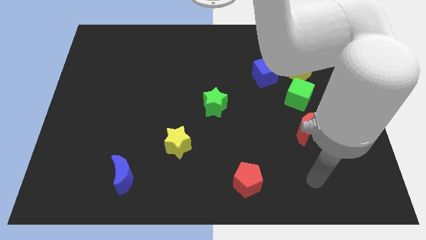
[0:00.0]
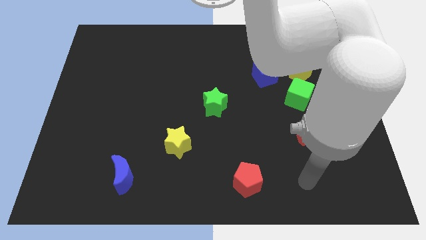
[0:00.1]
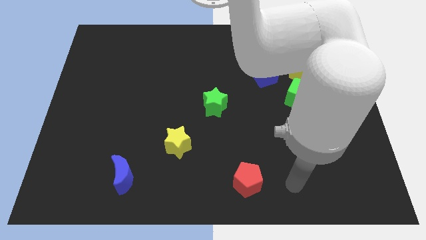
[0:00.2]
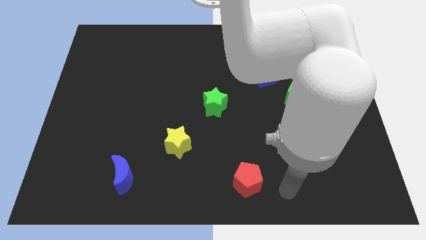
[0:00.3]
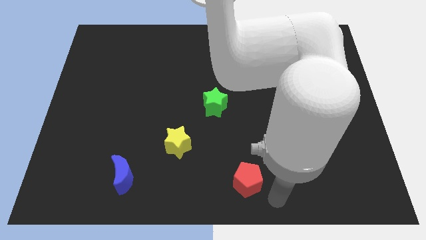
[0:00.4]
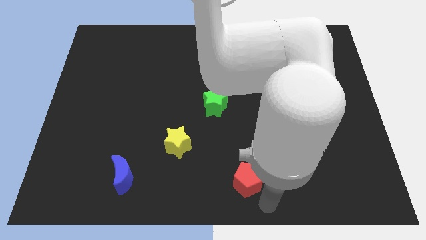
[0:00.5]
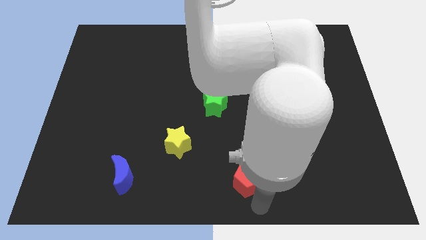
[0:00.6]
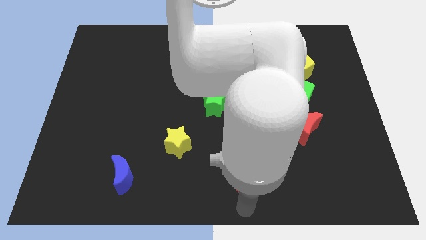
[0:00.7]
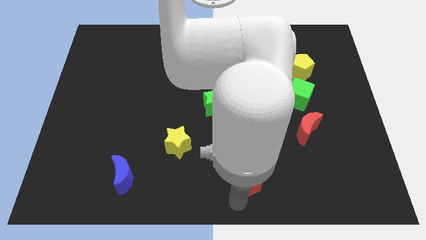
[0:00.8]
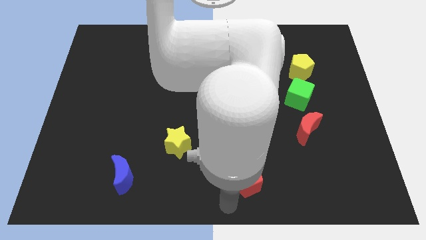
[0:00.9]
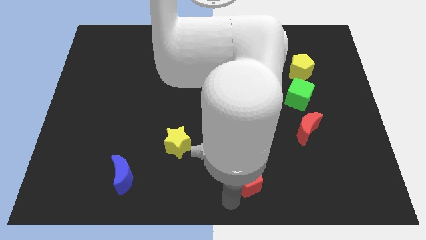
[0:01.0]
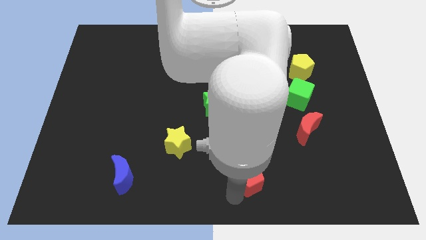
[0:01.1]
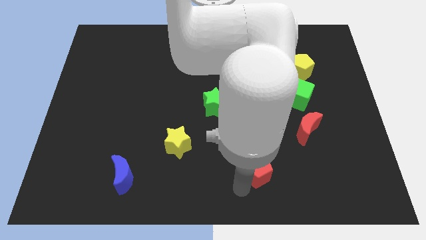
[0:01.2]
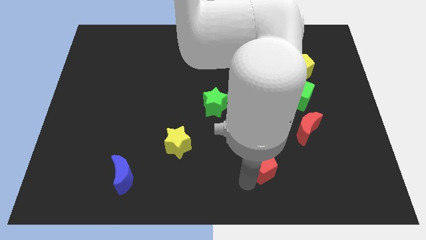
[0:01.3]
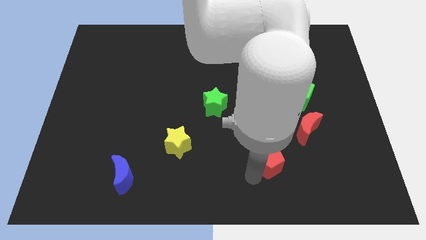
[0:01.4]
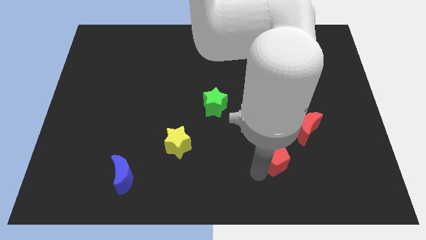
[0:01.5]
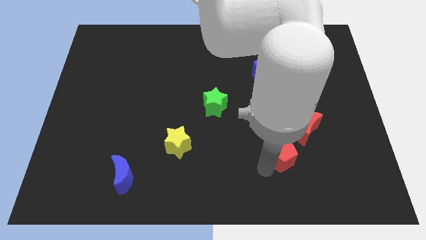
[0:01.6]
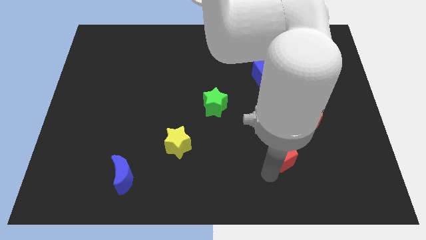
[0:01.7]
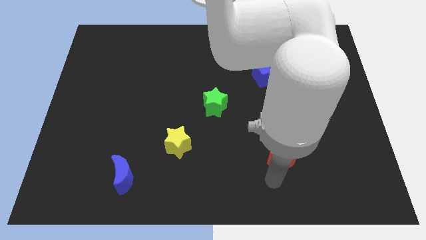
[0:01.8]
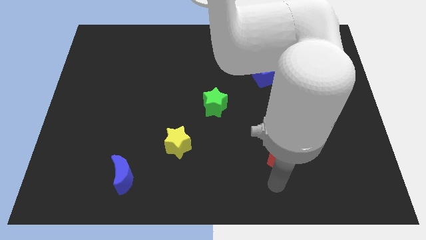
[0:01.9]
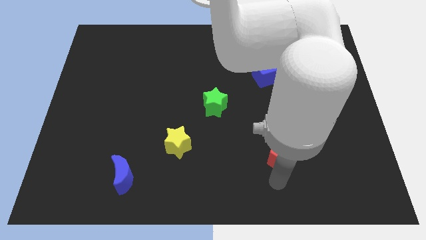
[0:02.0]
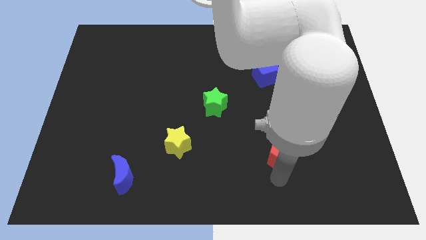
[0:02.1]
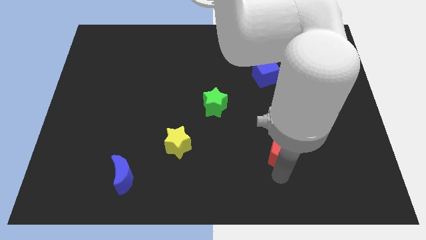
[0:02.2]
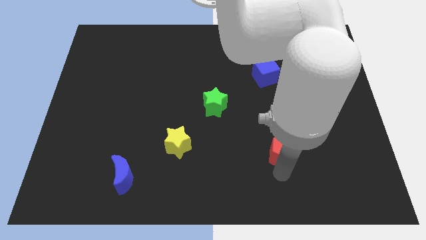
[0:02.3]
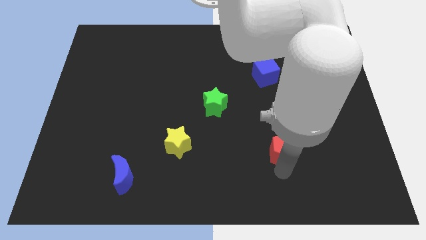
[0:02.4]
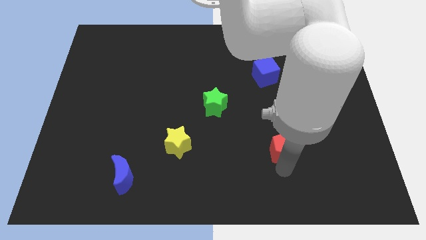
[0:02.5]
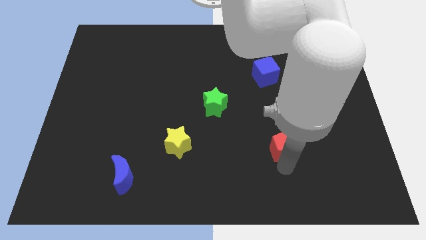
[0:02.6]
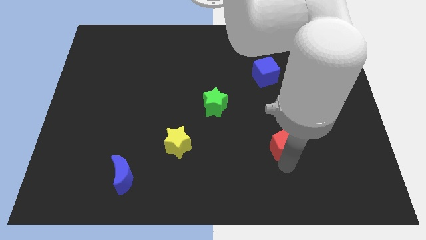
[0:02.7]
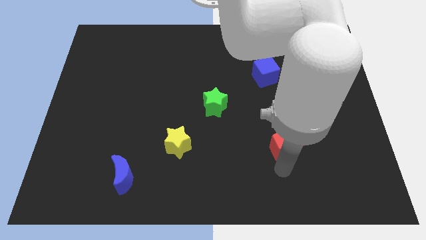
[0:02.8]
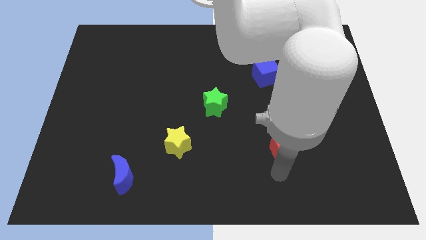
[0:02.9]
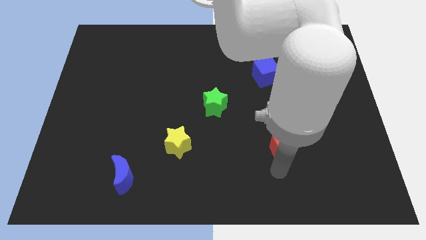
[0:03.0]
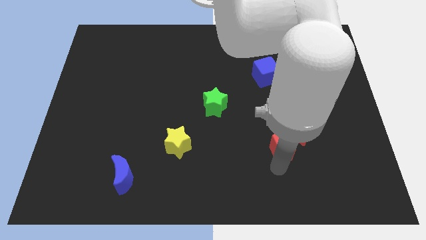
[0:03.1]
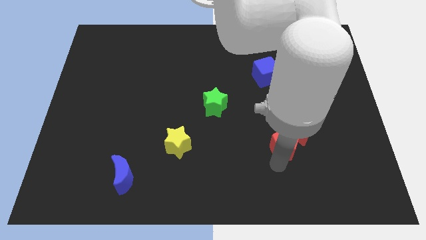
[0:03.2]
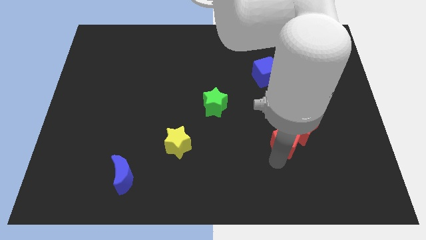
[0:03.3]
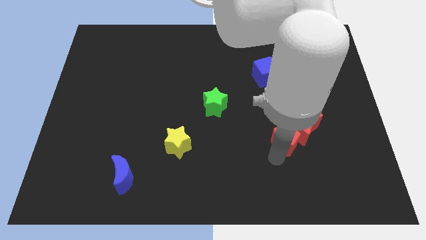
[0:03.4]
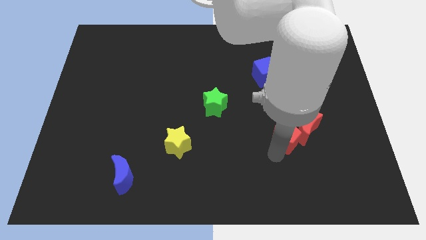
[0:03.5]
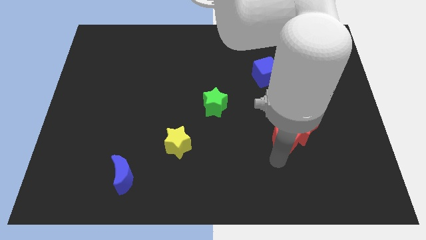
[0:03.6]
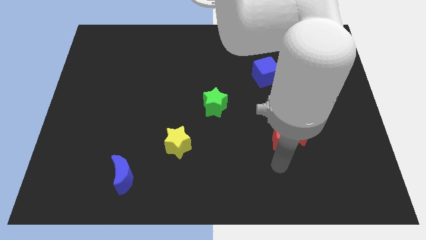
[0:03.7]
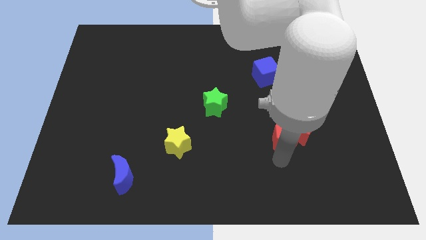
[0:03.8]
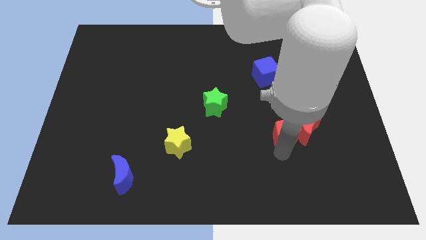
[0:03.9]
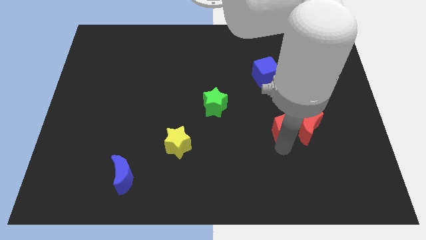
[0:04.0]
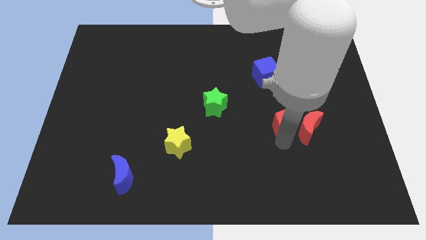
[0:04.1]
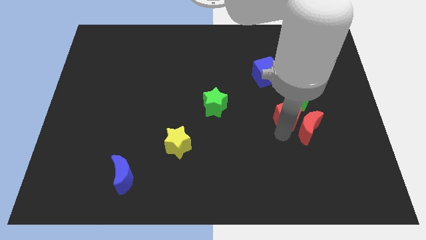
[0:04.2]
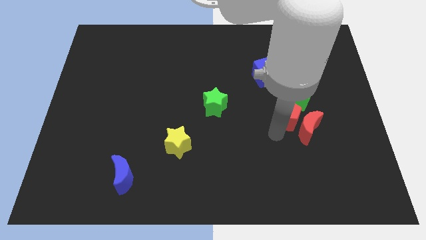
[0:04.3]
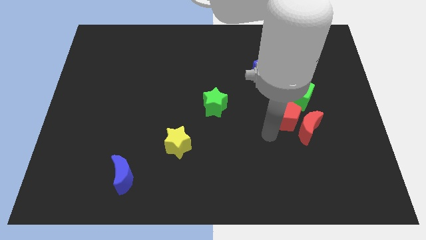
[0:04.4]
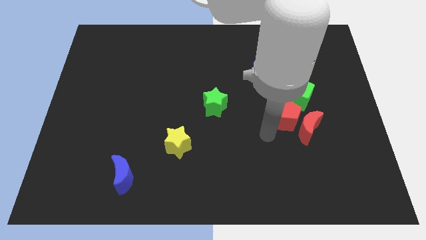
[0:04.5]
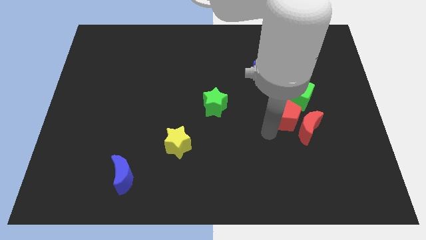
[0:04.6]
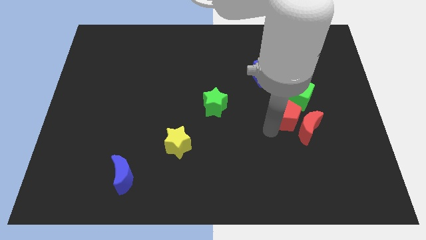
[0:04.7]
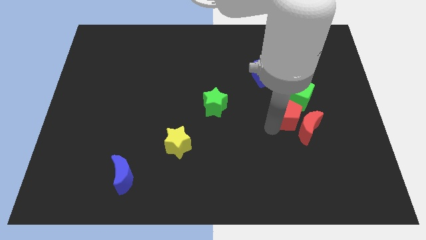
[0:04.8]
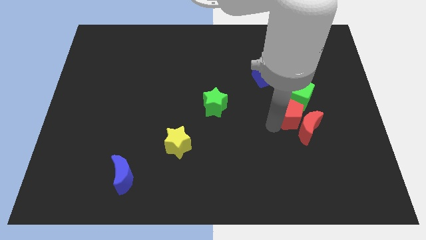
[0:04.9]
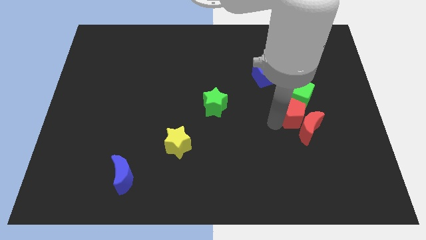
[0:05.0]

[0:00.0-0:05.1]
put the red pentagon below the yellow pentagon

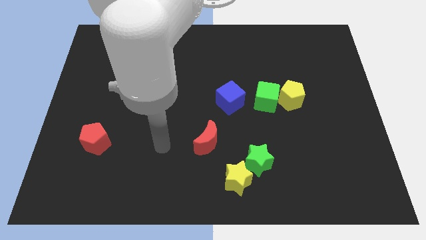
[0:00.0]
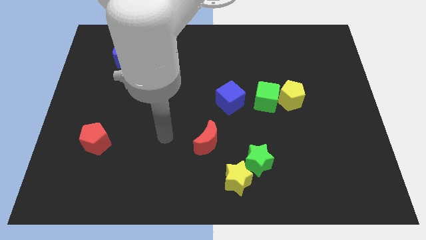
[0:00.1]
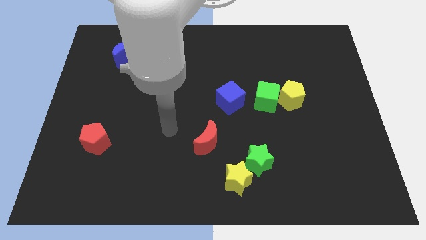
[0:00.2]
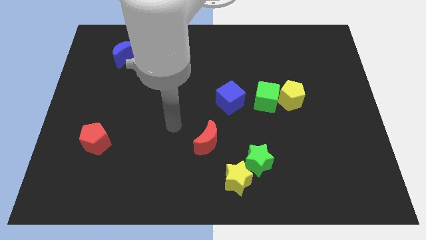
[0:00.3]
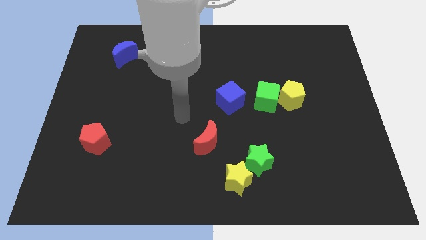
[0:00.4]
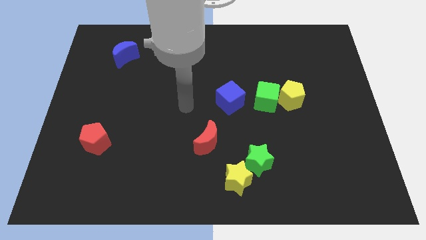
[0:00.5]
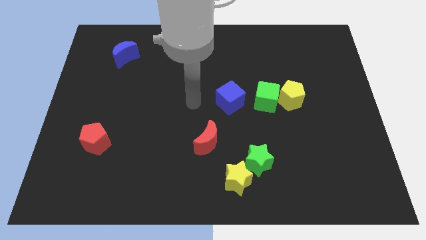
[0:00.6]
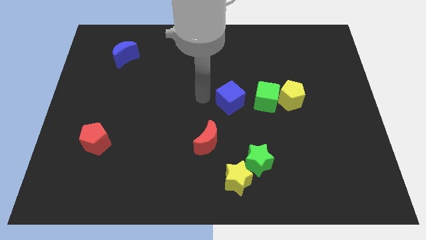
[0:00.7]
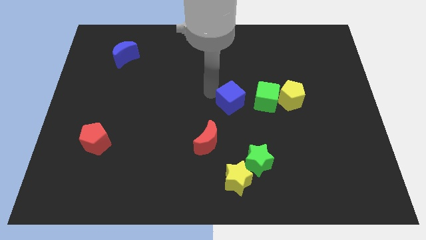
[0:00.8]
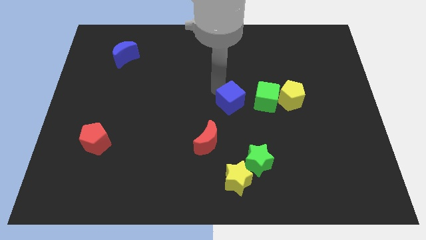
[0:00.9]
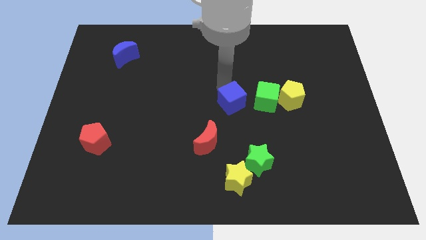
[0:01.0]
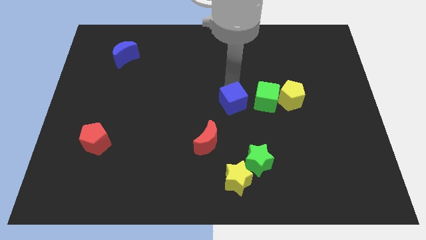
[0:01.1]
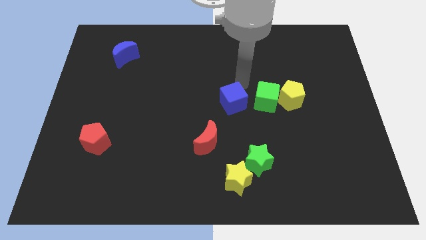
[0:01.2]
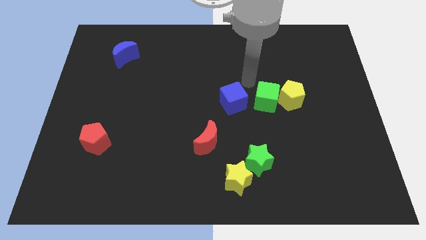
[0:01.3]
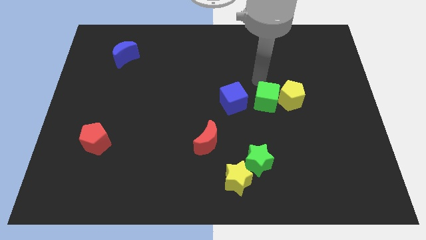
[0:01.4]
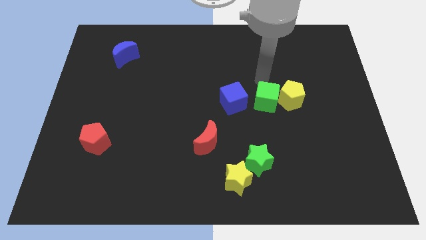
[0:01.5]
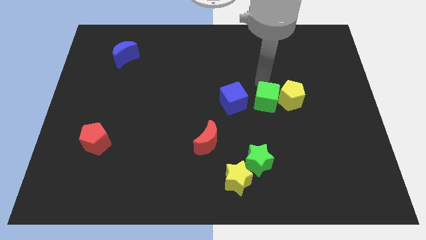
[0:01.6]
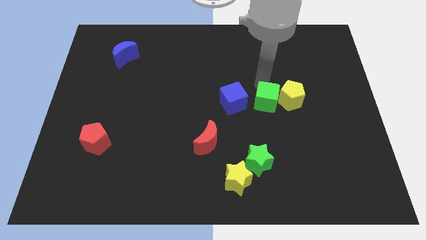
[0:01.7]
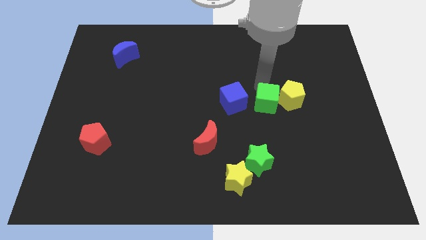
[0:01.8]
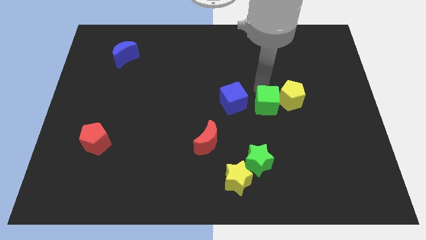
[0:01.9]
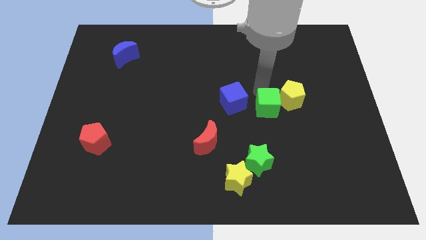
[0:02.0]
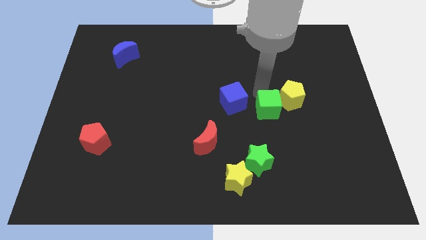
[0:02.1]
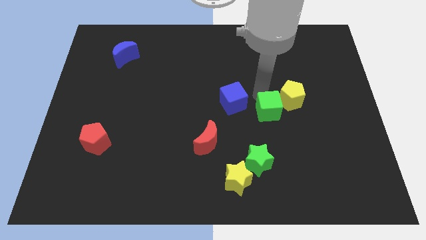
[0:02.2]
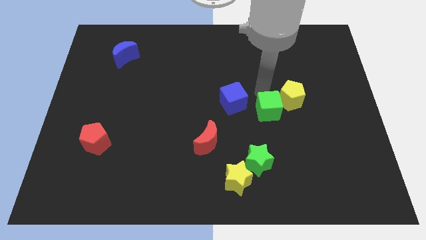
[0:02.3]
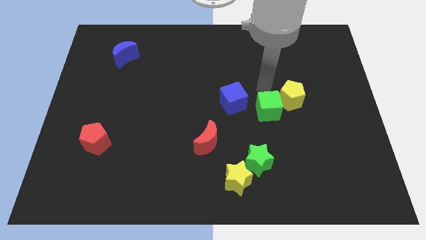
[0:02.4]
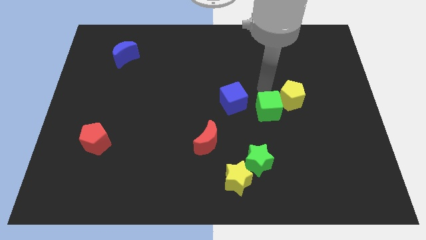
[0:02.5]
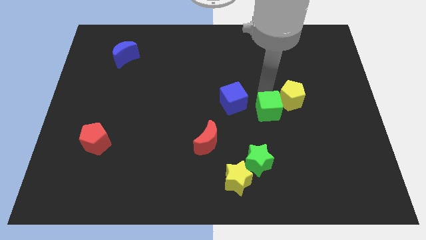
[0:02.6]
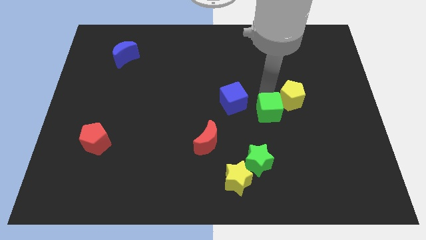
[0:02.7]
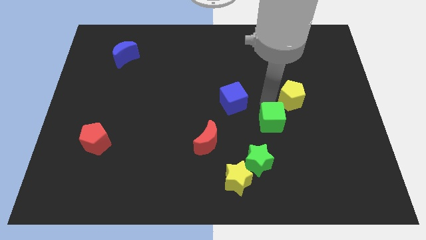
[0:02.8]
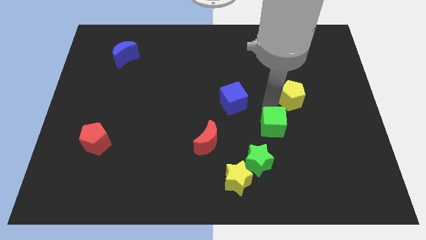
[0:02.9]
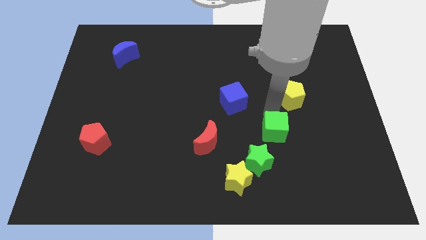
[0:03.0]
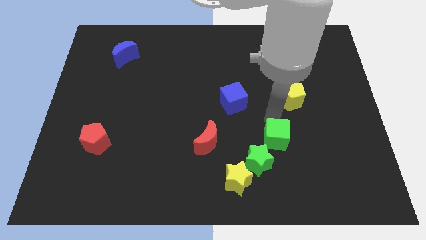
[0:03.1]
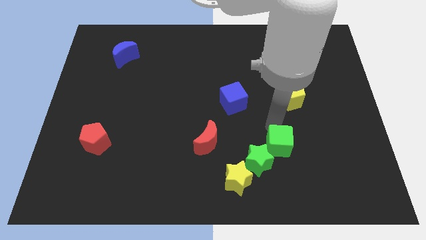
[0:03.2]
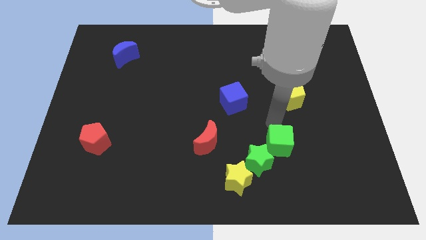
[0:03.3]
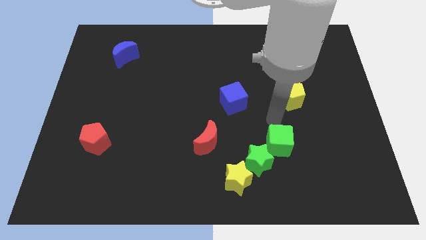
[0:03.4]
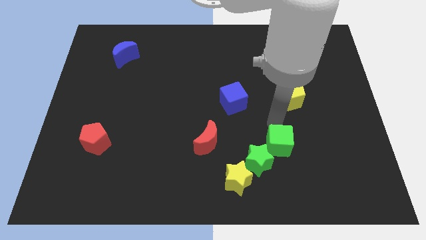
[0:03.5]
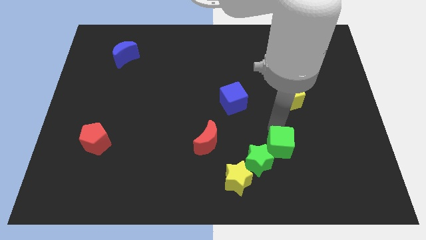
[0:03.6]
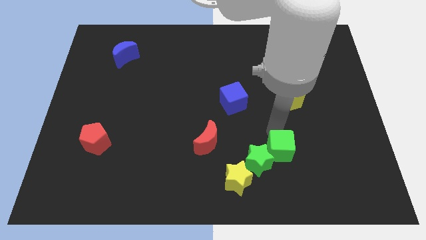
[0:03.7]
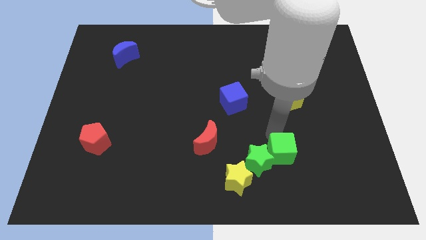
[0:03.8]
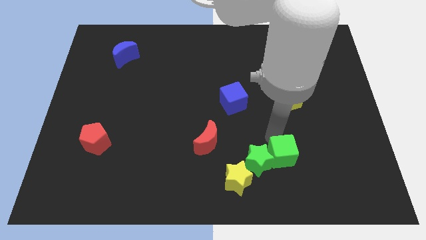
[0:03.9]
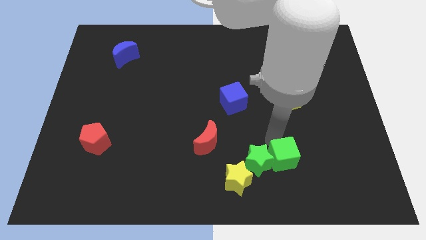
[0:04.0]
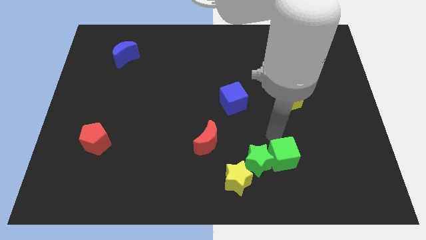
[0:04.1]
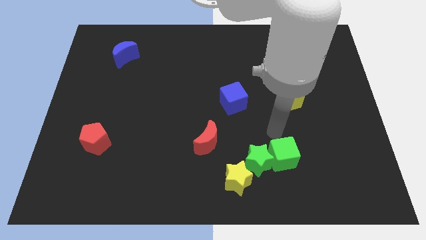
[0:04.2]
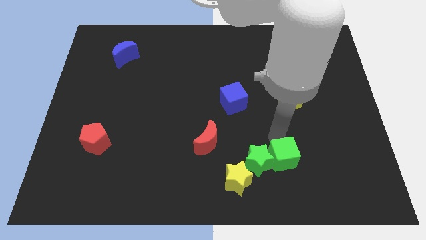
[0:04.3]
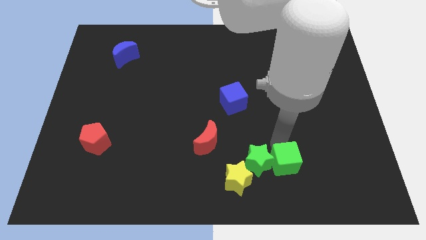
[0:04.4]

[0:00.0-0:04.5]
put the green cube just right of the yellow star
